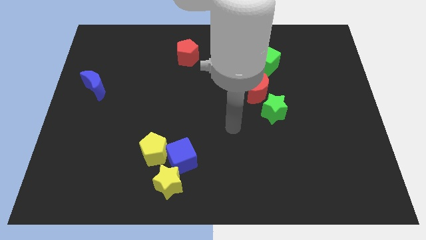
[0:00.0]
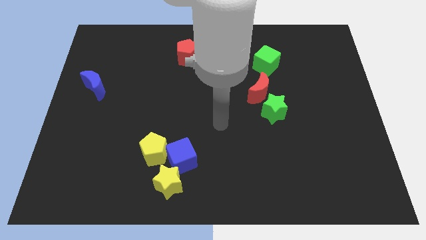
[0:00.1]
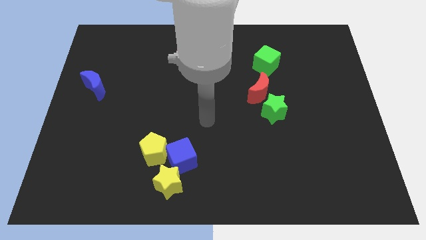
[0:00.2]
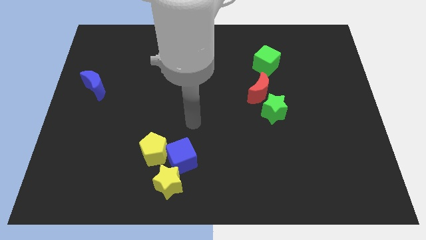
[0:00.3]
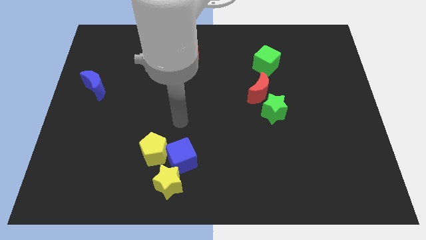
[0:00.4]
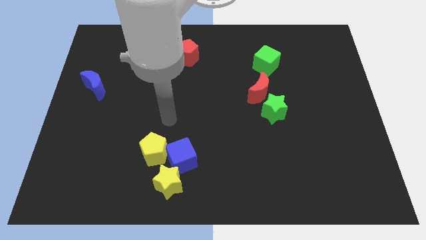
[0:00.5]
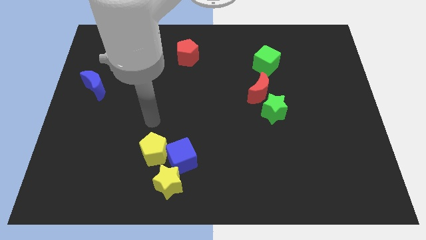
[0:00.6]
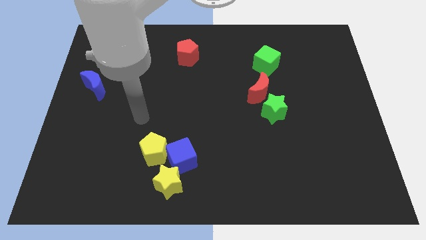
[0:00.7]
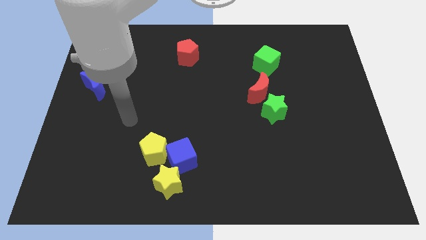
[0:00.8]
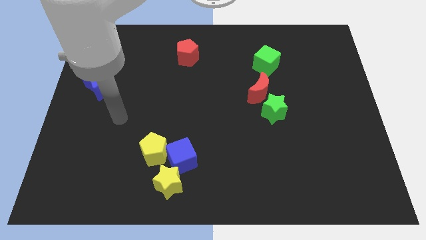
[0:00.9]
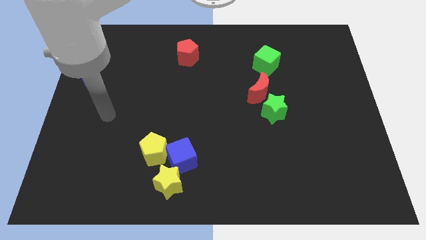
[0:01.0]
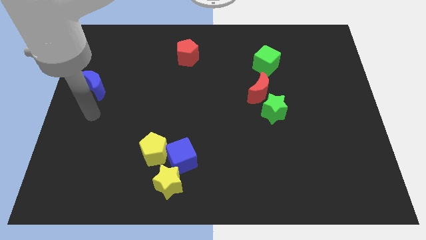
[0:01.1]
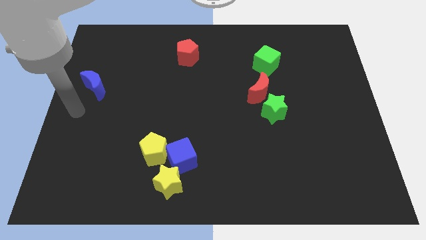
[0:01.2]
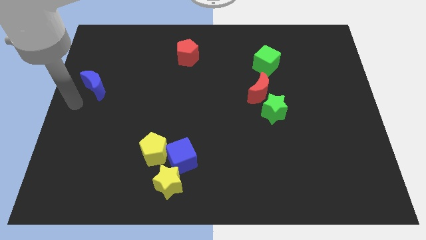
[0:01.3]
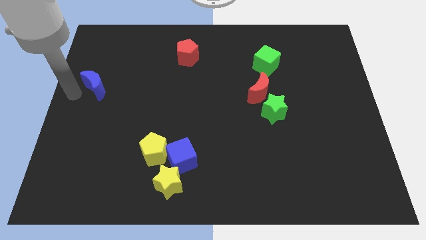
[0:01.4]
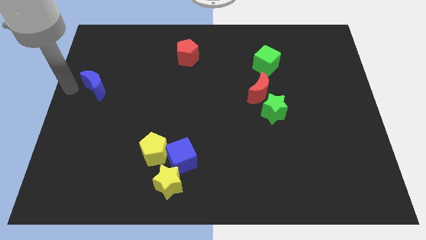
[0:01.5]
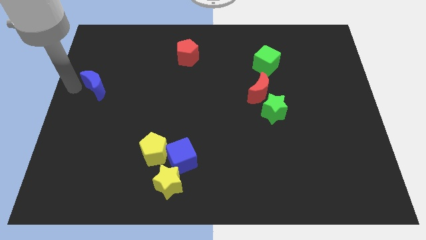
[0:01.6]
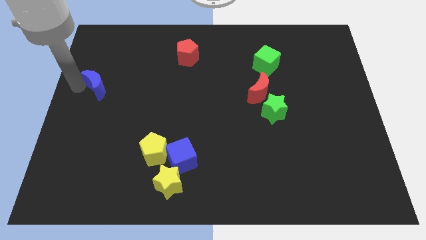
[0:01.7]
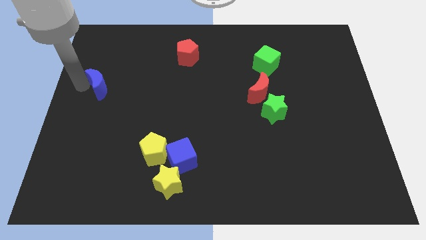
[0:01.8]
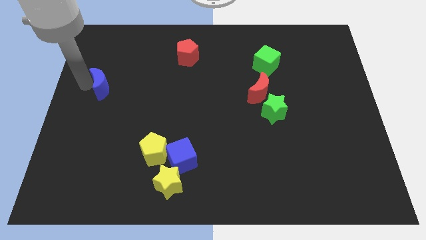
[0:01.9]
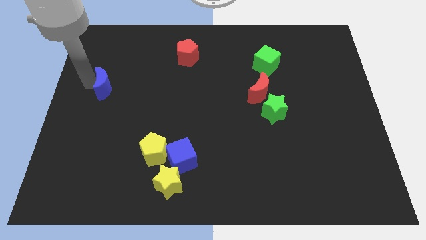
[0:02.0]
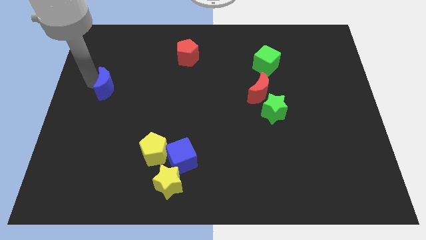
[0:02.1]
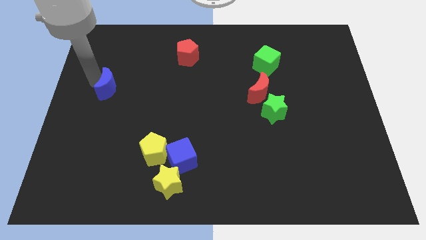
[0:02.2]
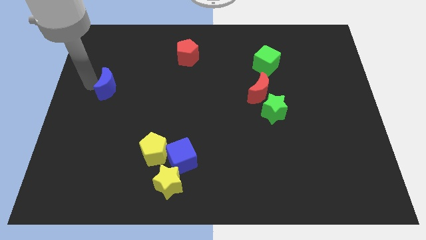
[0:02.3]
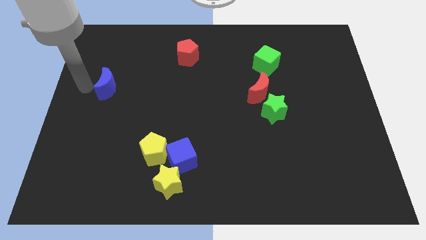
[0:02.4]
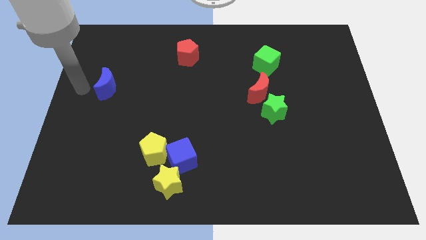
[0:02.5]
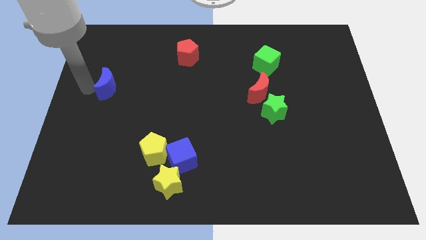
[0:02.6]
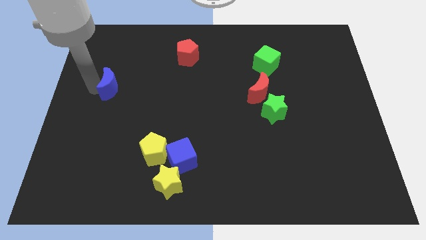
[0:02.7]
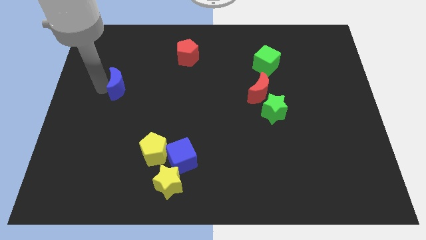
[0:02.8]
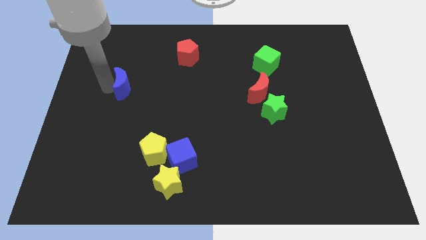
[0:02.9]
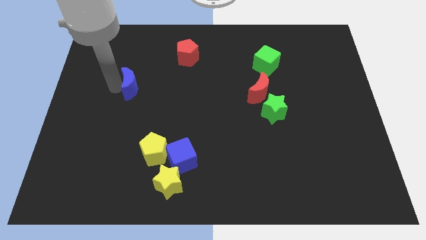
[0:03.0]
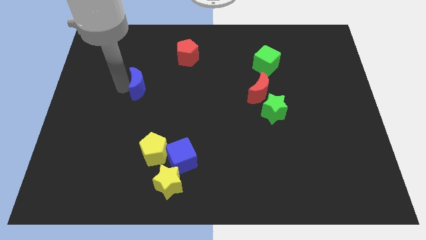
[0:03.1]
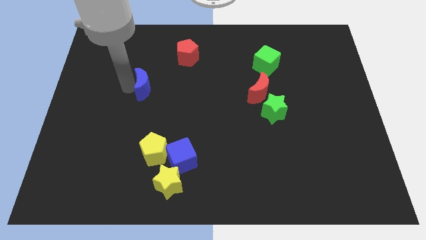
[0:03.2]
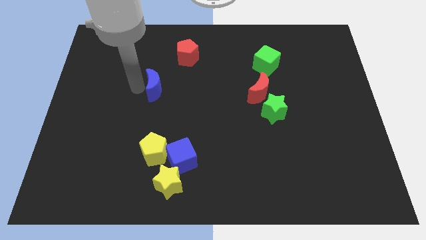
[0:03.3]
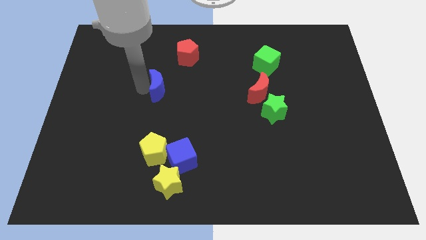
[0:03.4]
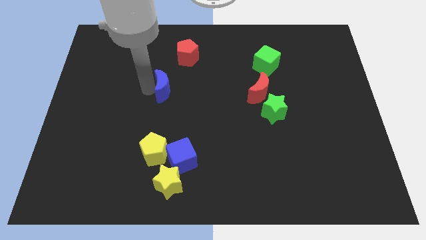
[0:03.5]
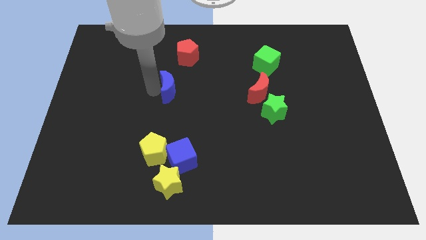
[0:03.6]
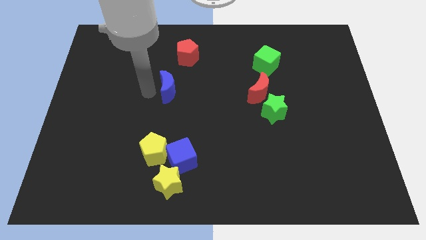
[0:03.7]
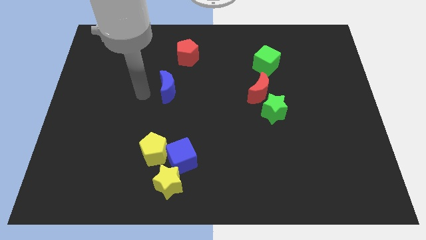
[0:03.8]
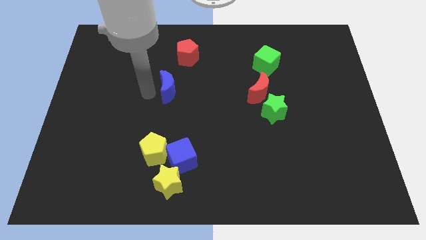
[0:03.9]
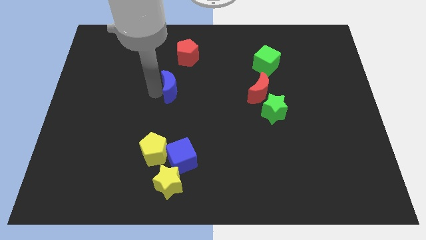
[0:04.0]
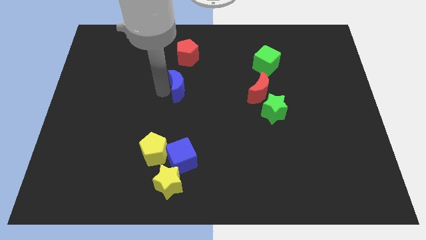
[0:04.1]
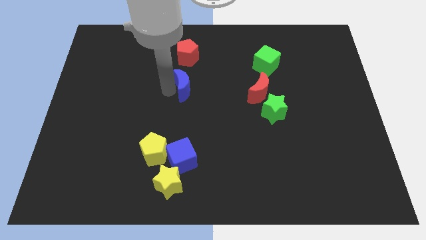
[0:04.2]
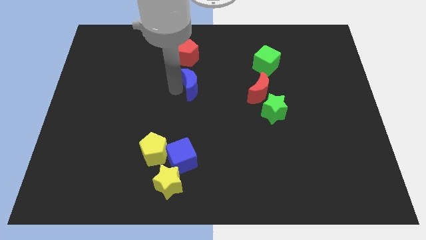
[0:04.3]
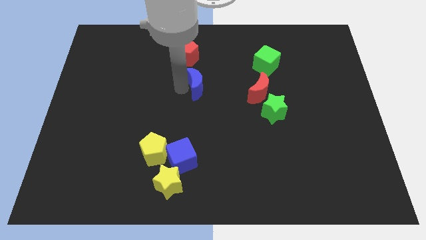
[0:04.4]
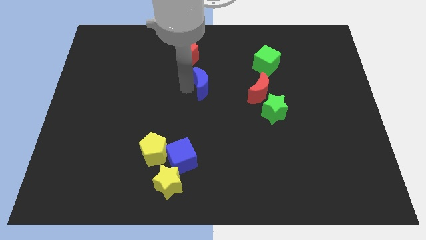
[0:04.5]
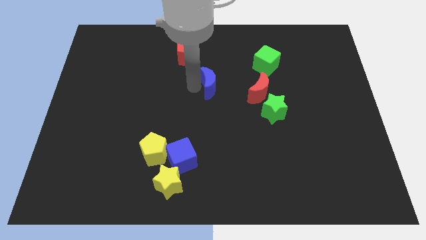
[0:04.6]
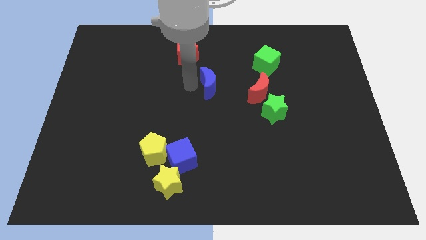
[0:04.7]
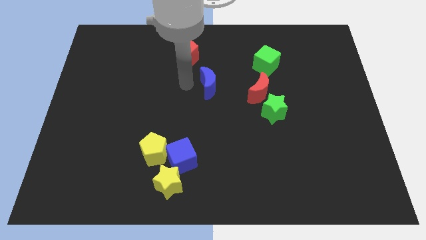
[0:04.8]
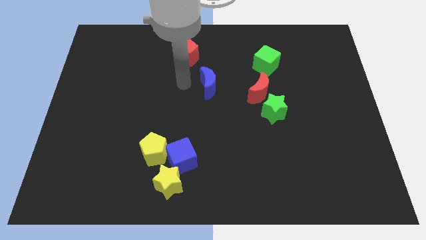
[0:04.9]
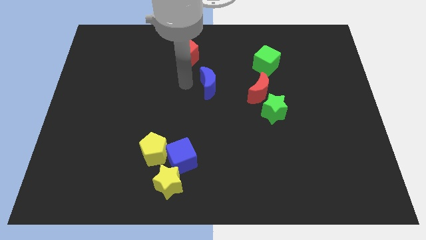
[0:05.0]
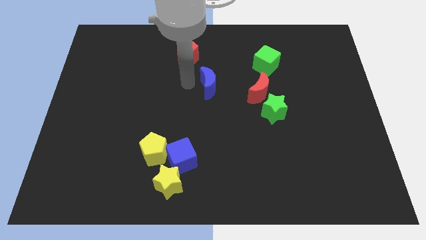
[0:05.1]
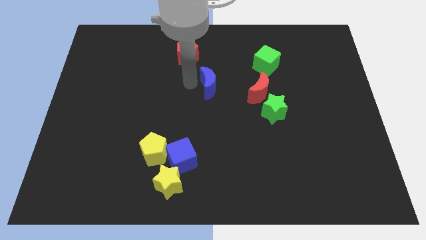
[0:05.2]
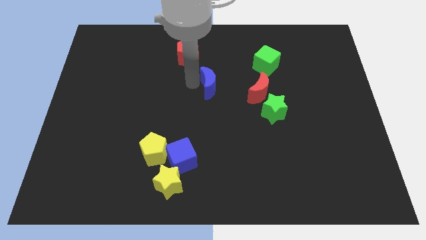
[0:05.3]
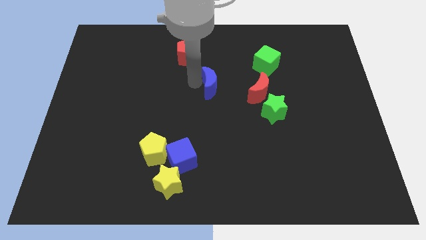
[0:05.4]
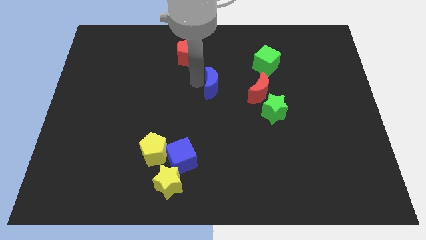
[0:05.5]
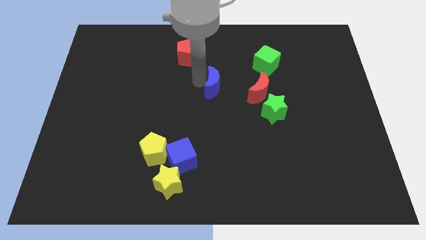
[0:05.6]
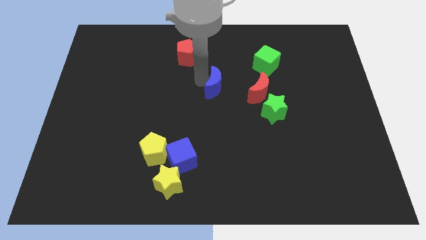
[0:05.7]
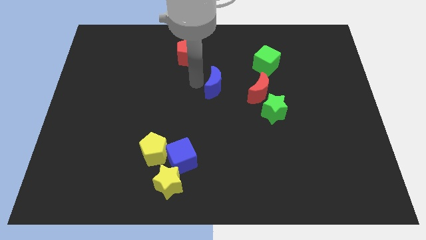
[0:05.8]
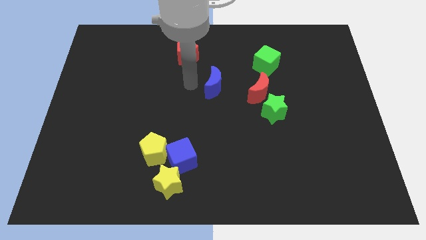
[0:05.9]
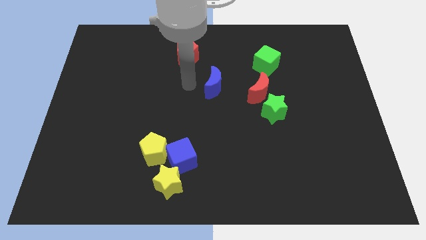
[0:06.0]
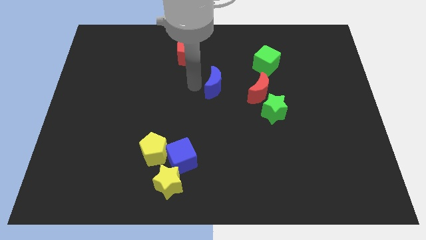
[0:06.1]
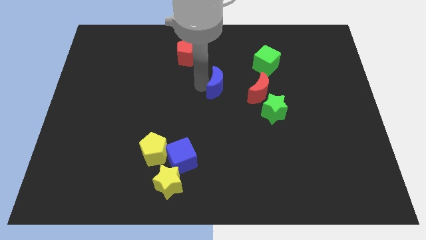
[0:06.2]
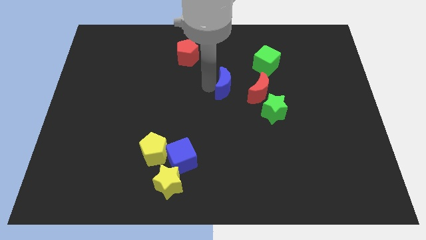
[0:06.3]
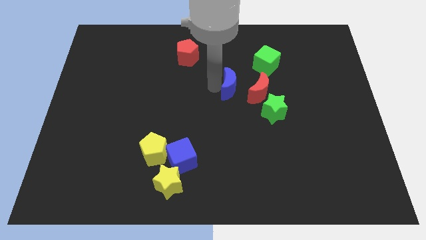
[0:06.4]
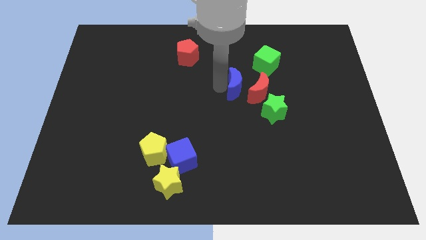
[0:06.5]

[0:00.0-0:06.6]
move the blue moon towards the red moon
